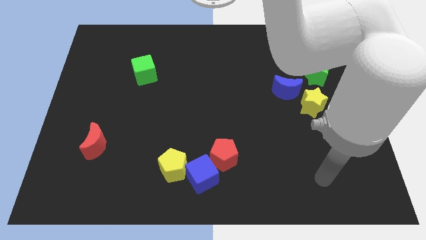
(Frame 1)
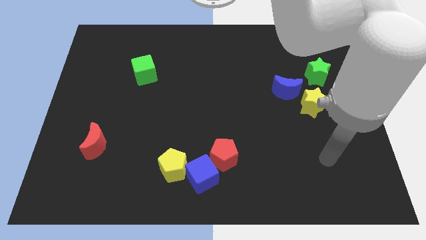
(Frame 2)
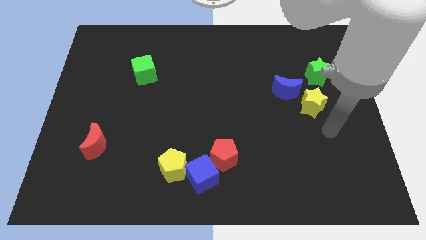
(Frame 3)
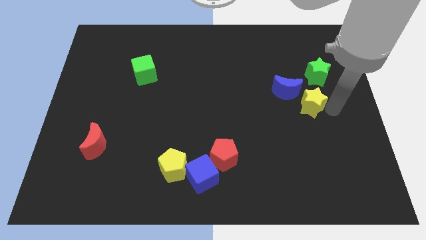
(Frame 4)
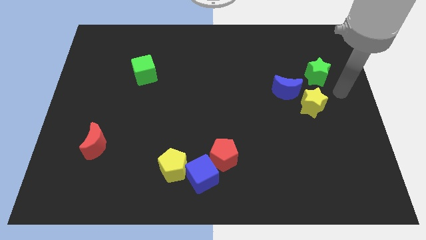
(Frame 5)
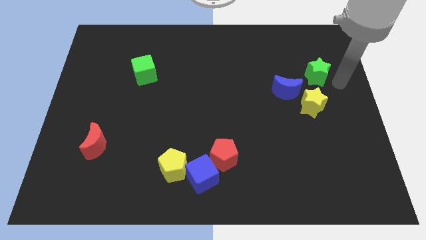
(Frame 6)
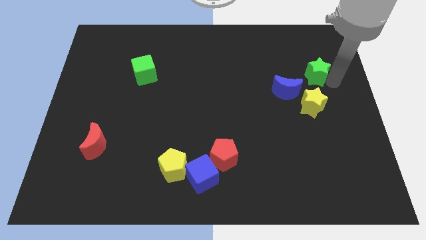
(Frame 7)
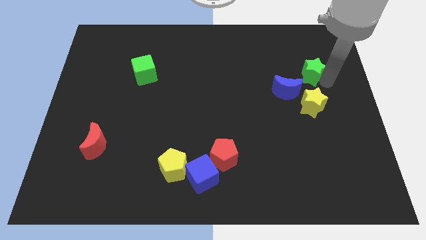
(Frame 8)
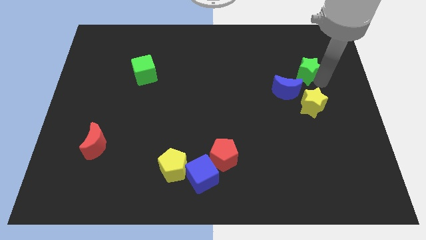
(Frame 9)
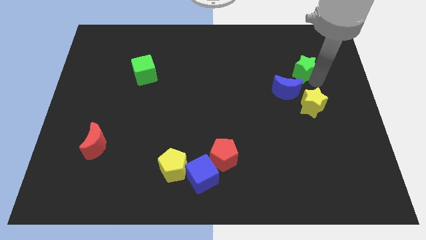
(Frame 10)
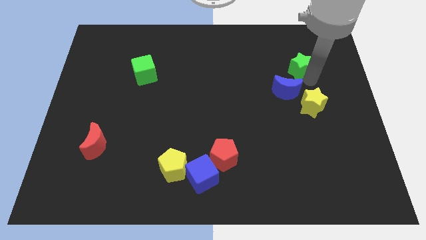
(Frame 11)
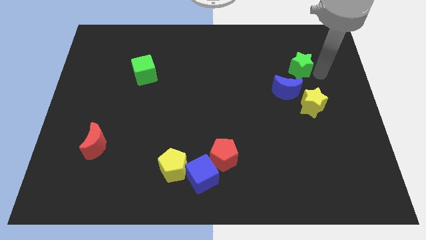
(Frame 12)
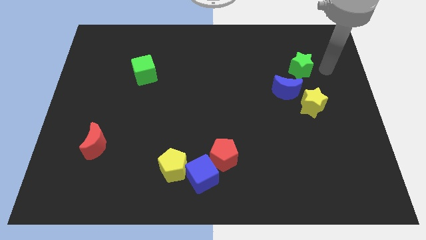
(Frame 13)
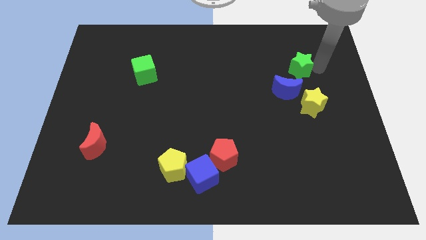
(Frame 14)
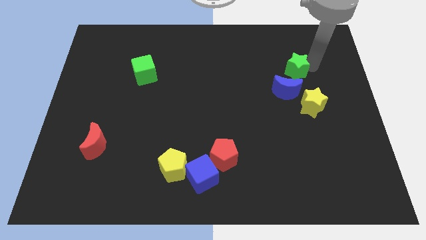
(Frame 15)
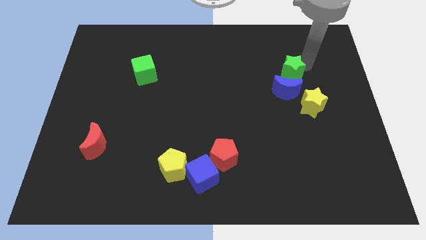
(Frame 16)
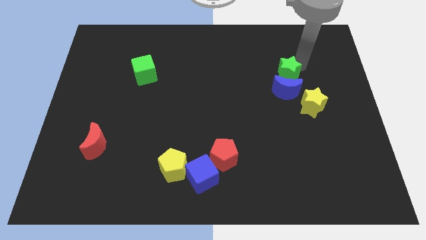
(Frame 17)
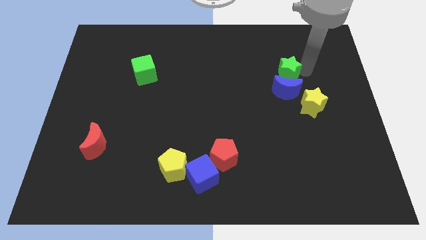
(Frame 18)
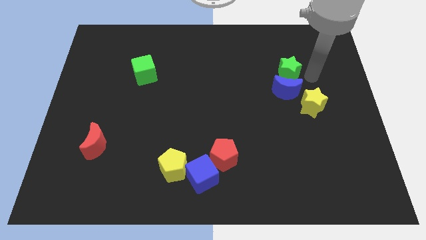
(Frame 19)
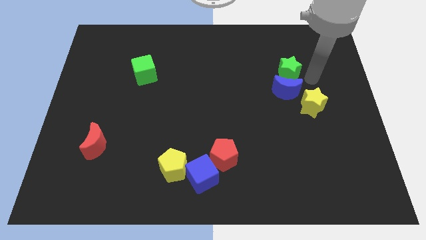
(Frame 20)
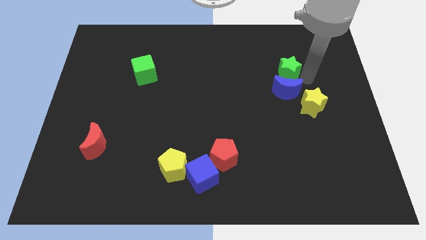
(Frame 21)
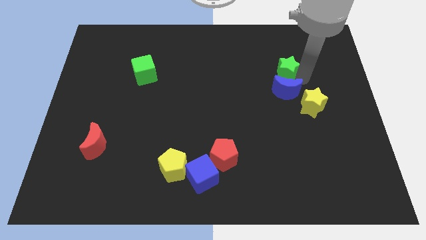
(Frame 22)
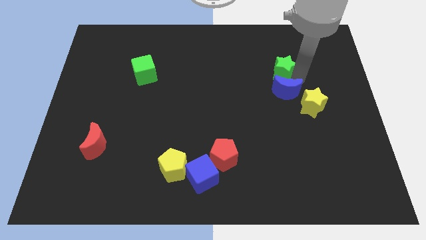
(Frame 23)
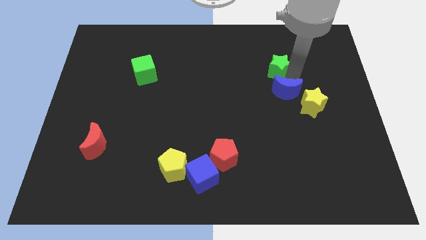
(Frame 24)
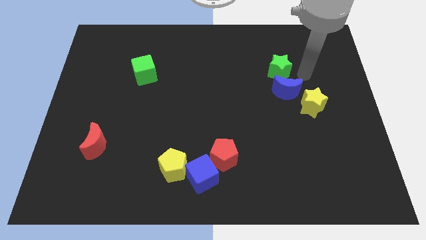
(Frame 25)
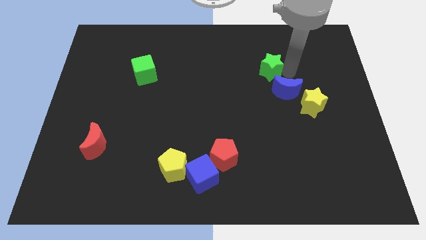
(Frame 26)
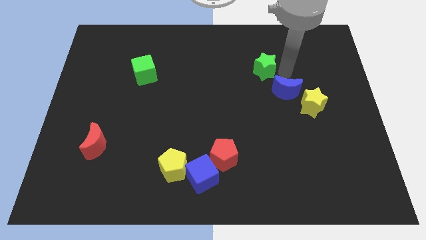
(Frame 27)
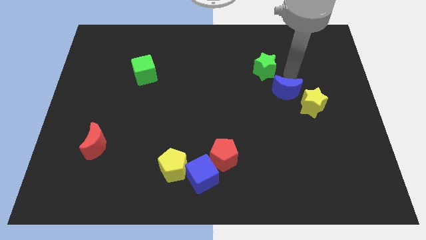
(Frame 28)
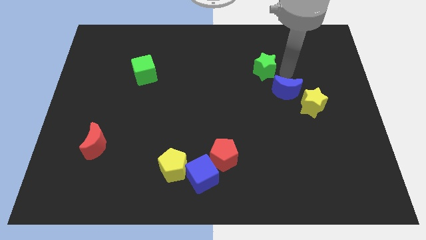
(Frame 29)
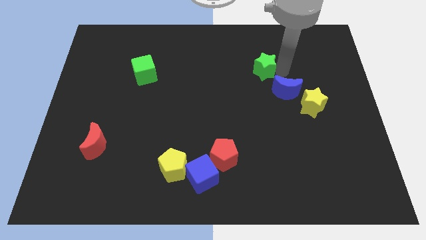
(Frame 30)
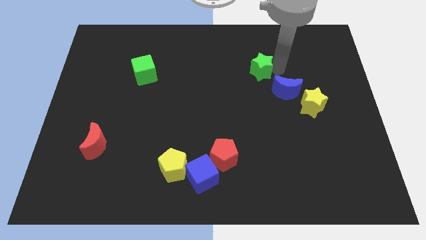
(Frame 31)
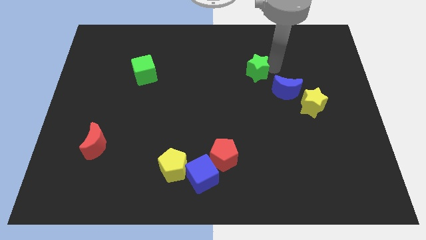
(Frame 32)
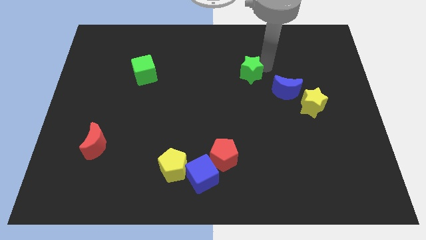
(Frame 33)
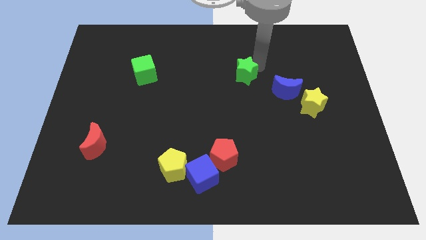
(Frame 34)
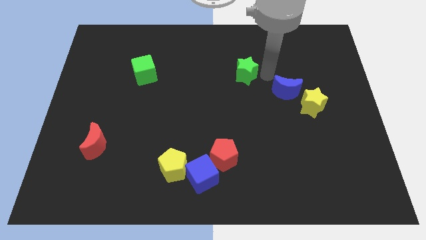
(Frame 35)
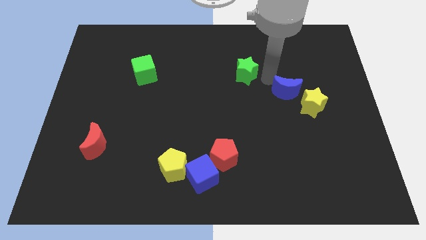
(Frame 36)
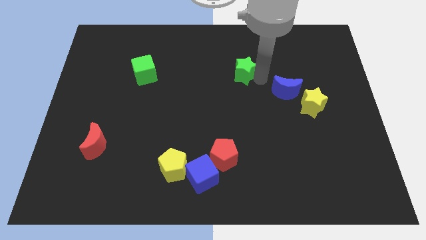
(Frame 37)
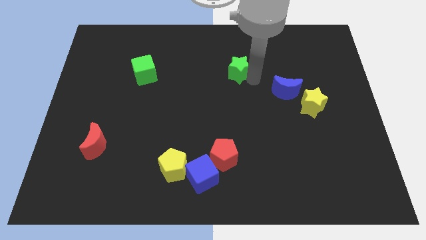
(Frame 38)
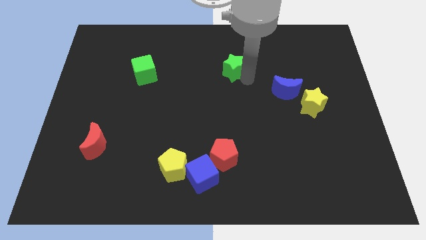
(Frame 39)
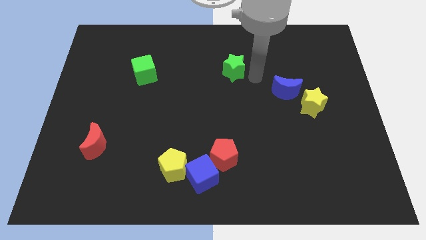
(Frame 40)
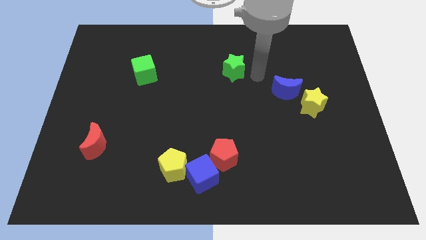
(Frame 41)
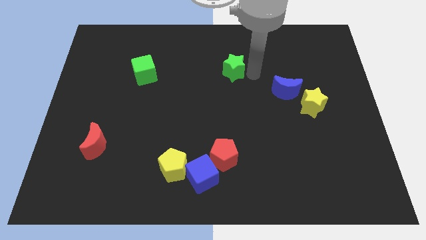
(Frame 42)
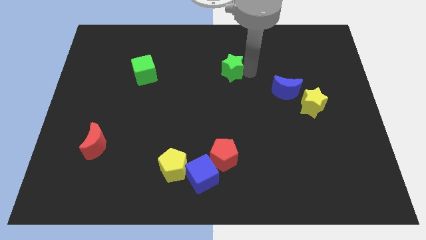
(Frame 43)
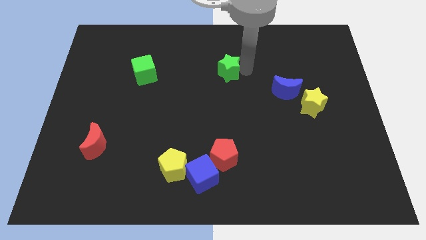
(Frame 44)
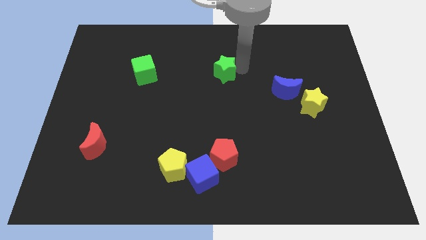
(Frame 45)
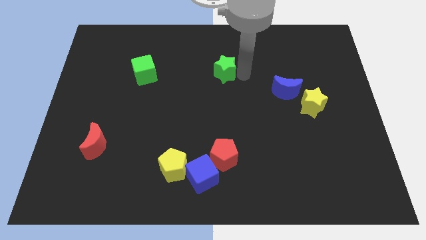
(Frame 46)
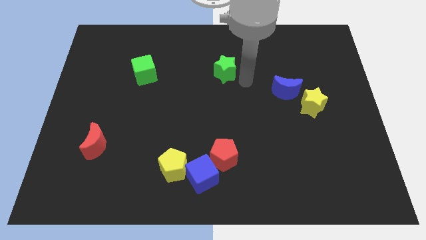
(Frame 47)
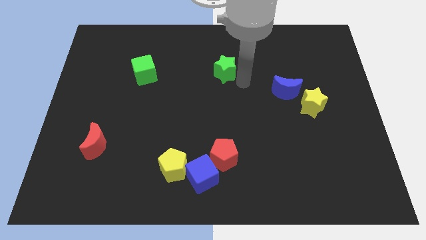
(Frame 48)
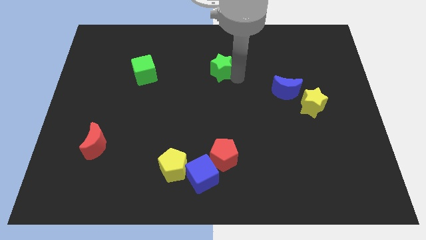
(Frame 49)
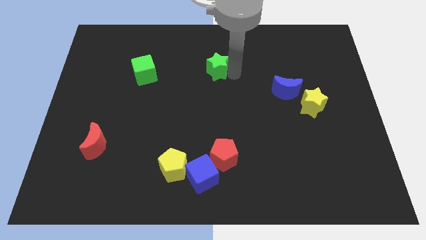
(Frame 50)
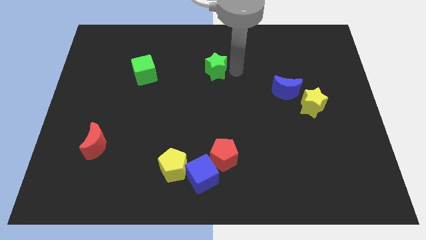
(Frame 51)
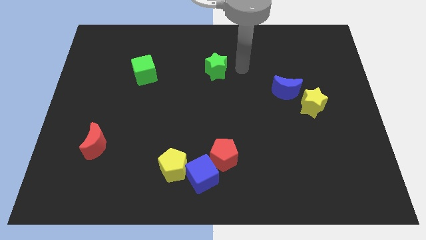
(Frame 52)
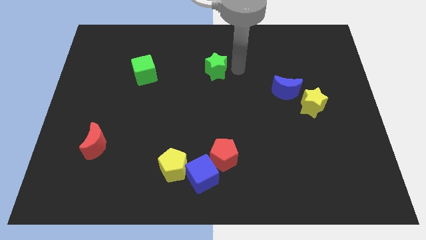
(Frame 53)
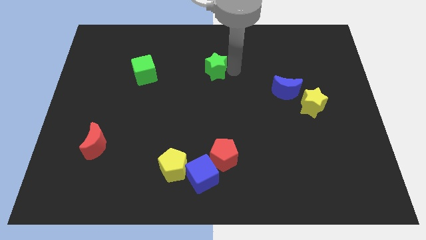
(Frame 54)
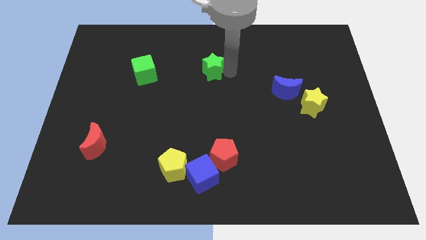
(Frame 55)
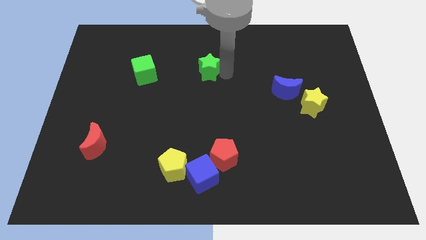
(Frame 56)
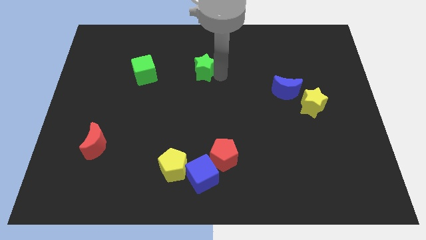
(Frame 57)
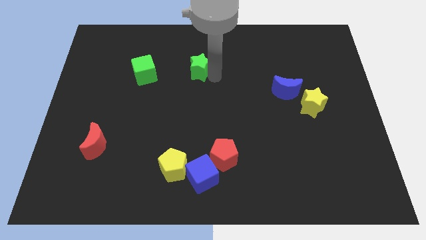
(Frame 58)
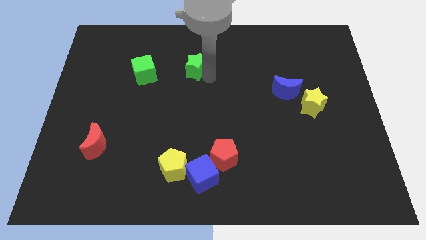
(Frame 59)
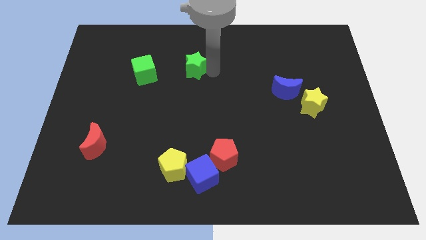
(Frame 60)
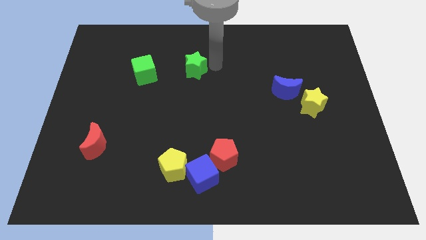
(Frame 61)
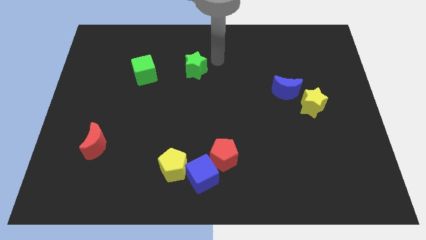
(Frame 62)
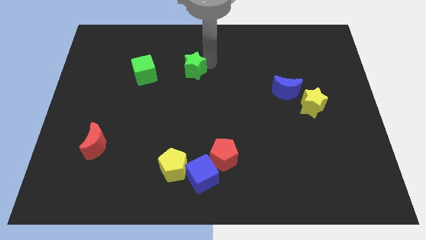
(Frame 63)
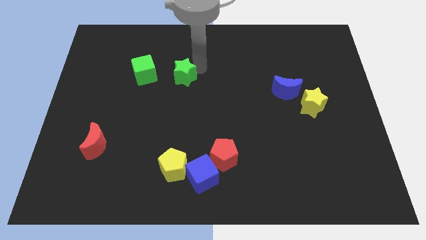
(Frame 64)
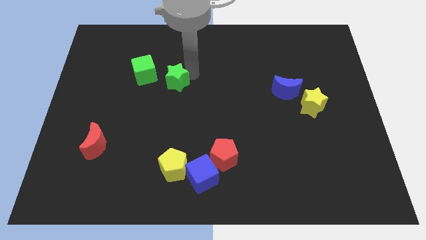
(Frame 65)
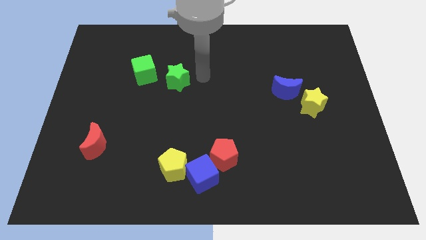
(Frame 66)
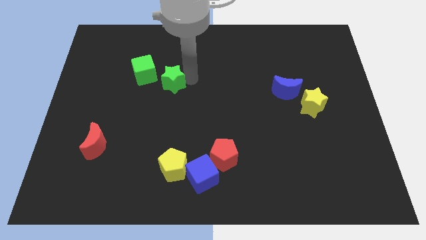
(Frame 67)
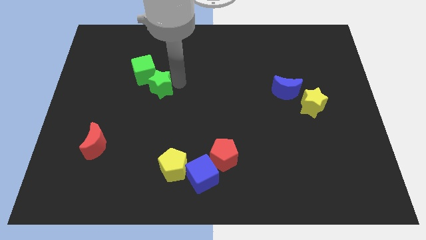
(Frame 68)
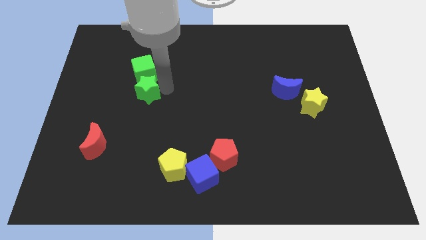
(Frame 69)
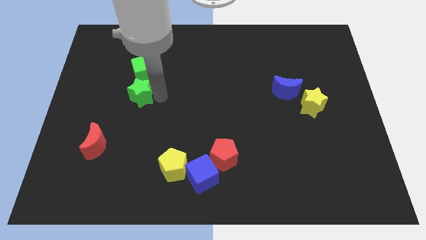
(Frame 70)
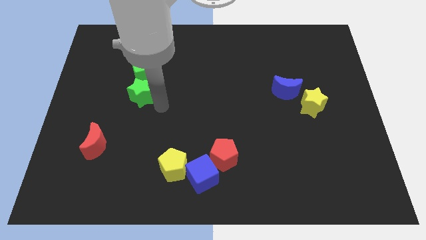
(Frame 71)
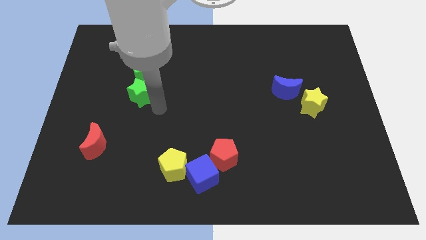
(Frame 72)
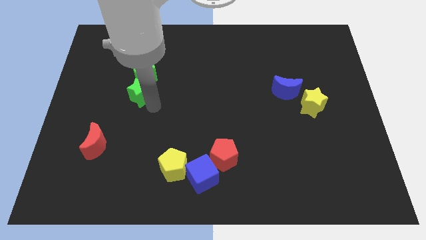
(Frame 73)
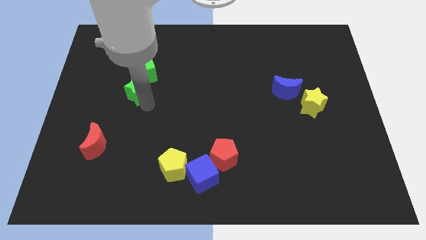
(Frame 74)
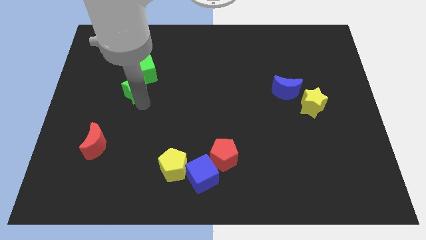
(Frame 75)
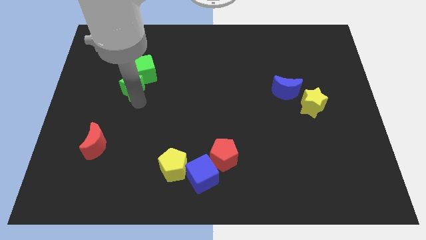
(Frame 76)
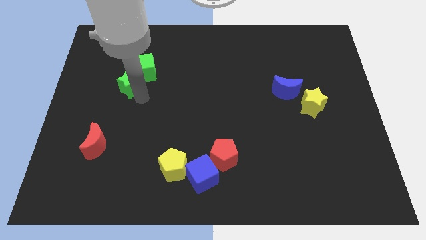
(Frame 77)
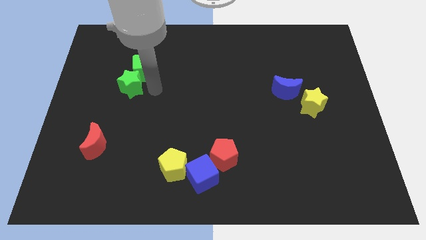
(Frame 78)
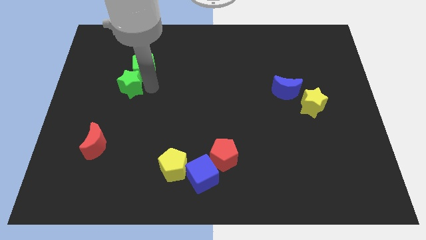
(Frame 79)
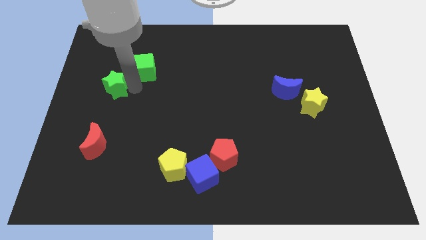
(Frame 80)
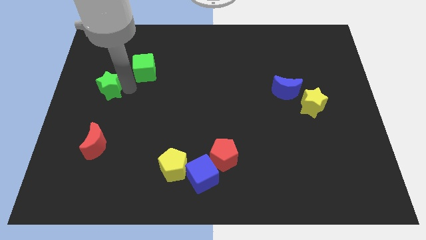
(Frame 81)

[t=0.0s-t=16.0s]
slide the green star to the center left

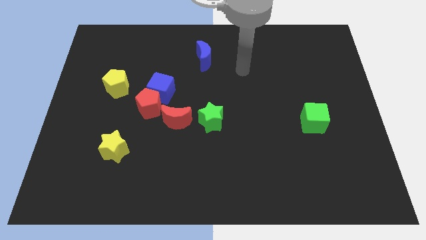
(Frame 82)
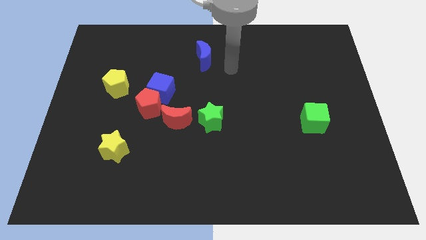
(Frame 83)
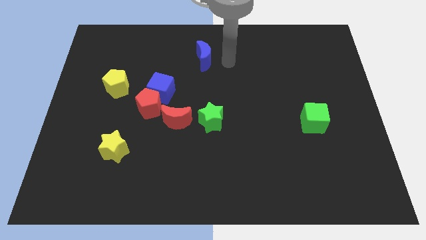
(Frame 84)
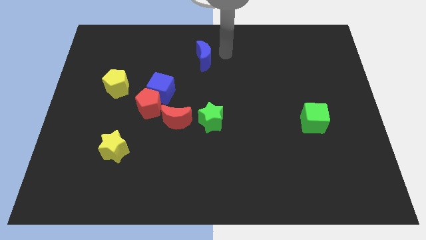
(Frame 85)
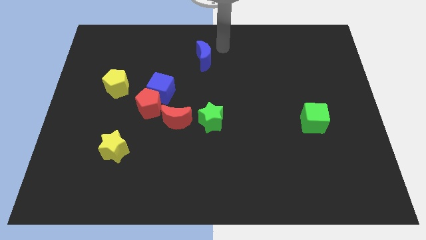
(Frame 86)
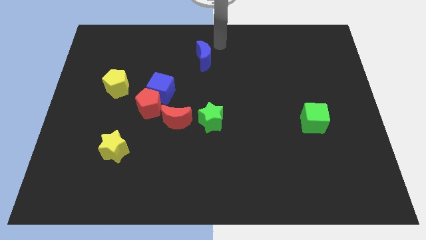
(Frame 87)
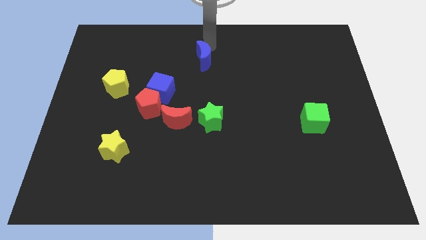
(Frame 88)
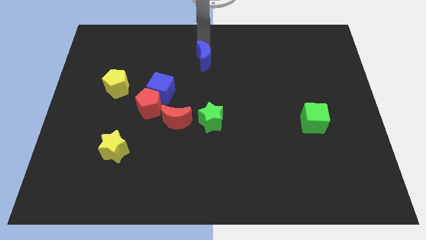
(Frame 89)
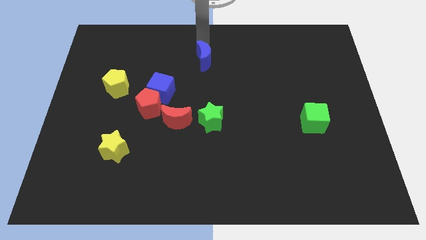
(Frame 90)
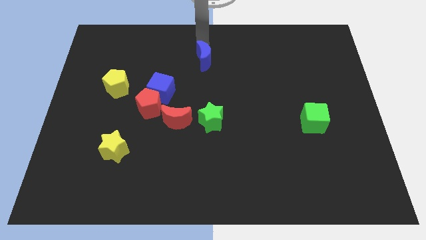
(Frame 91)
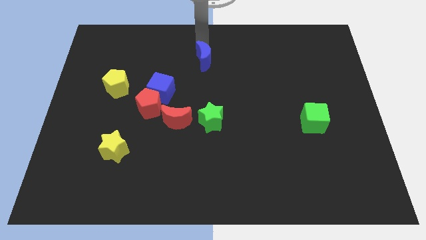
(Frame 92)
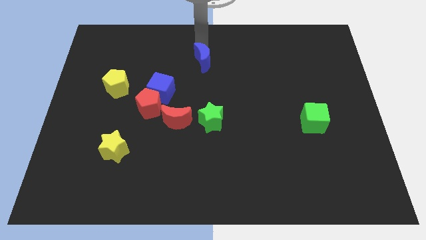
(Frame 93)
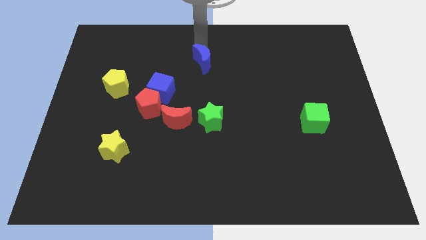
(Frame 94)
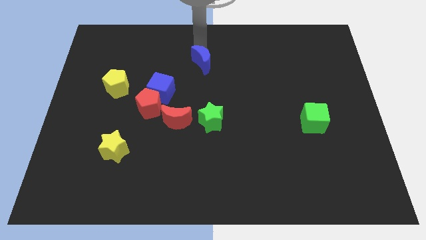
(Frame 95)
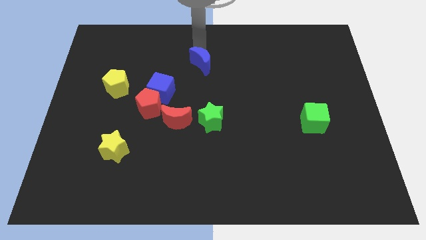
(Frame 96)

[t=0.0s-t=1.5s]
put the blue moon to the center of the board
